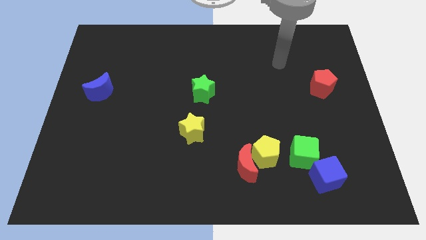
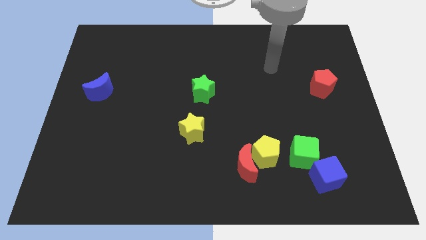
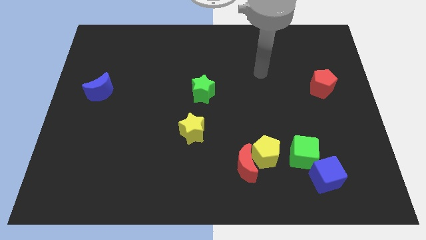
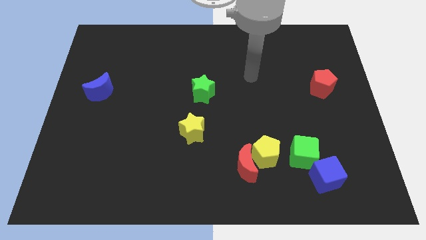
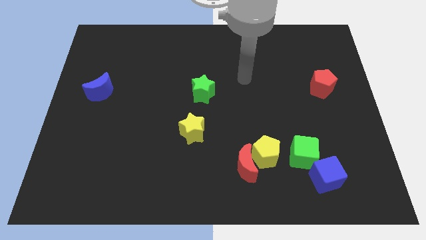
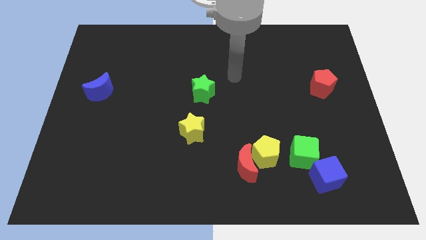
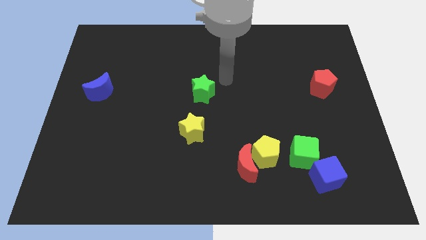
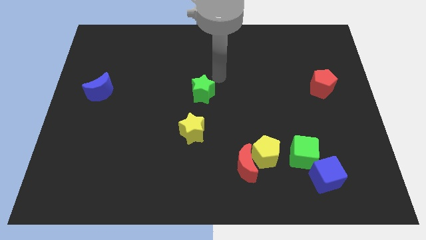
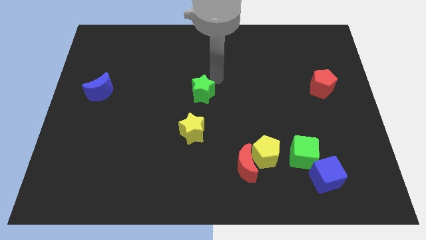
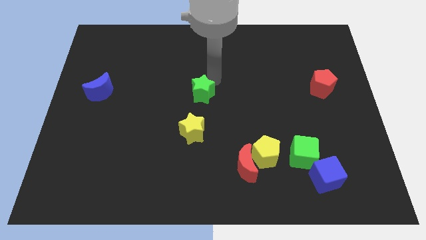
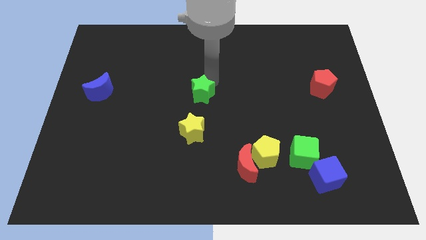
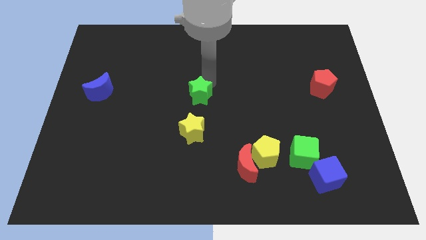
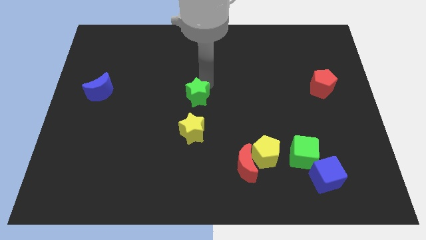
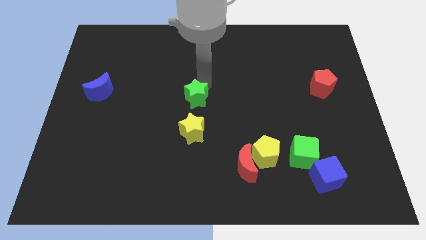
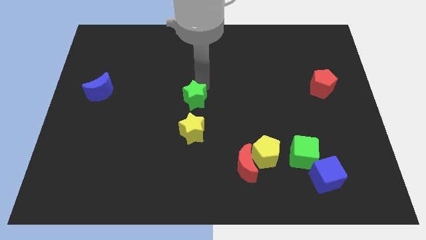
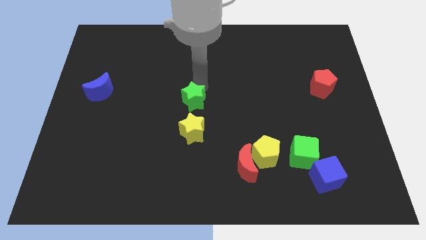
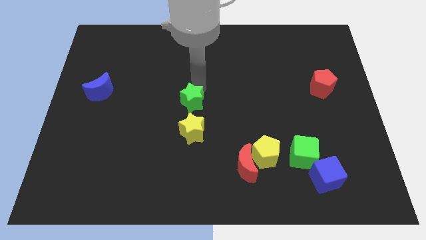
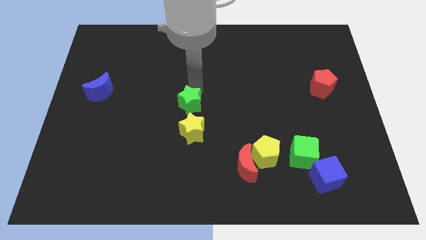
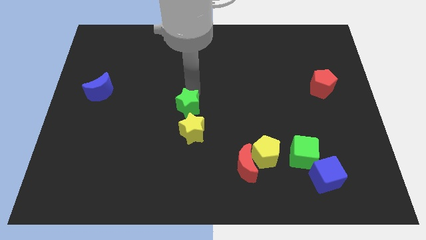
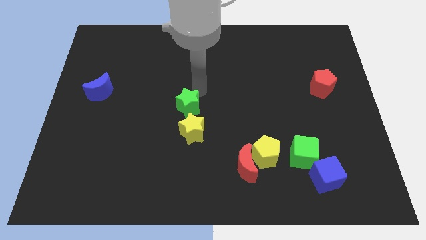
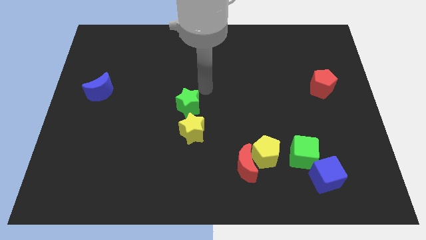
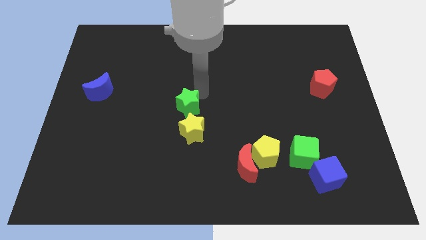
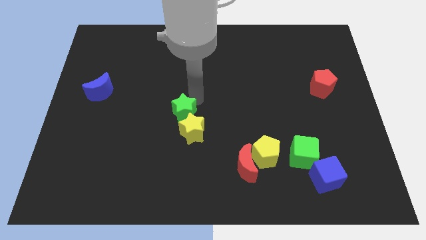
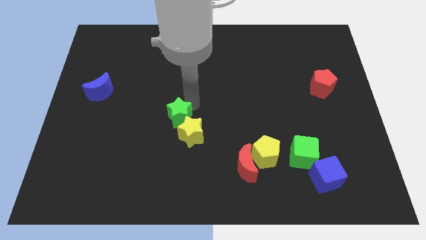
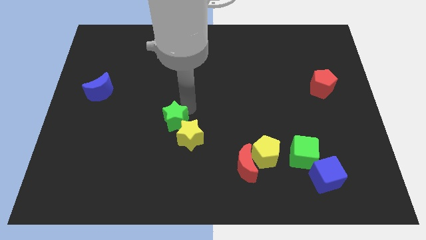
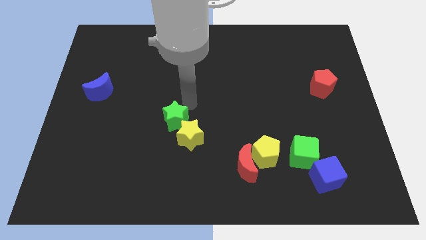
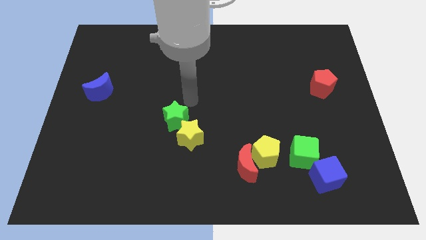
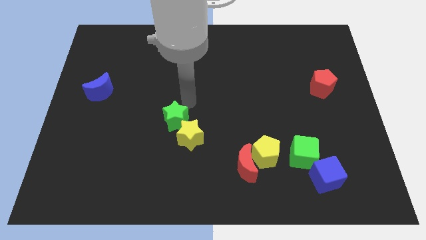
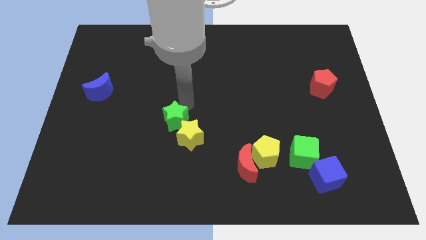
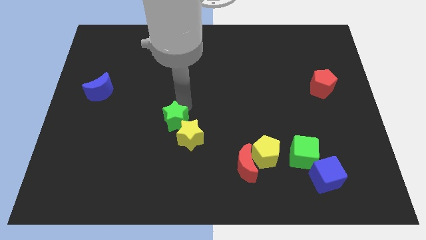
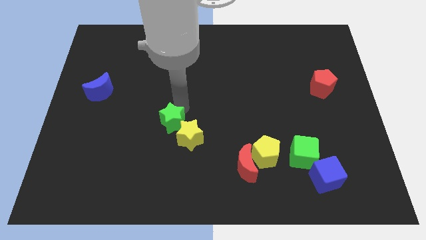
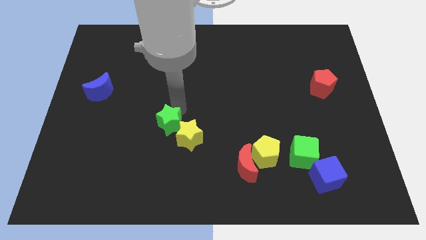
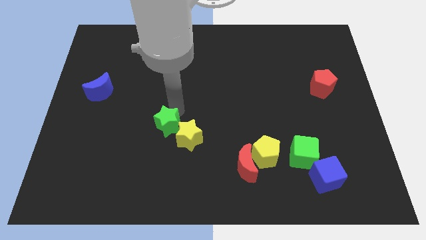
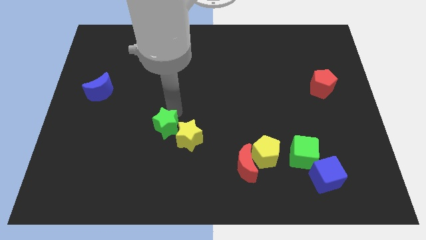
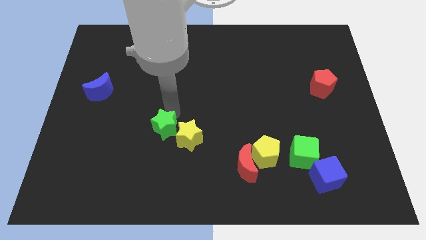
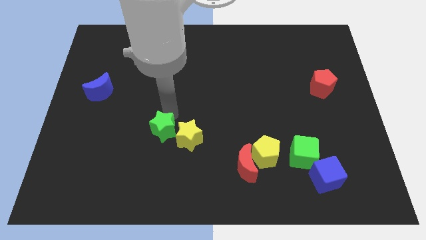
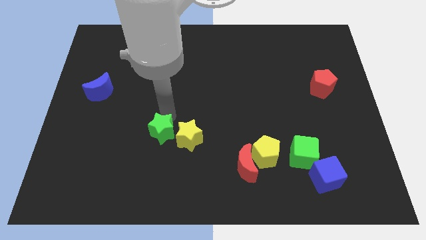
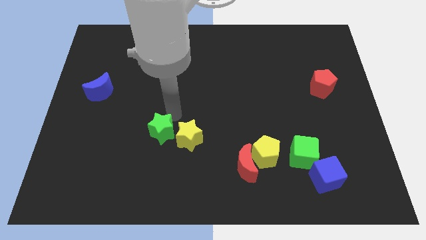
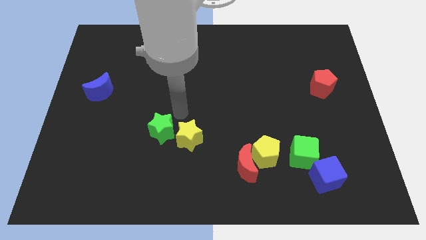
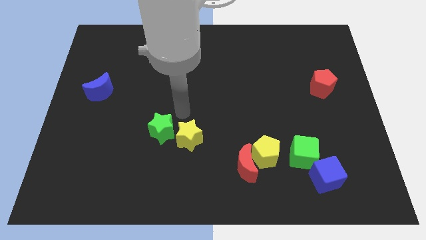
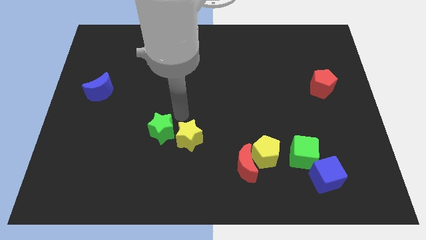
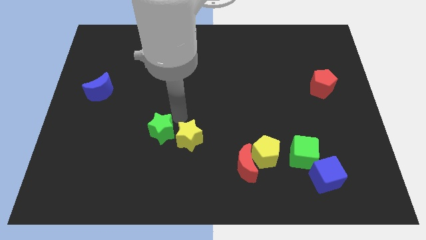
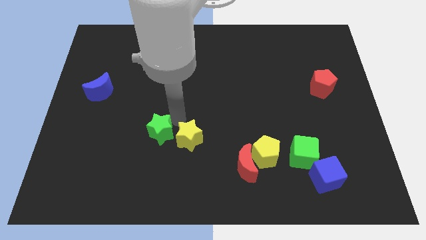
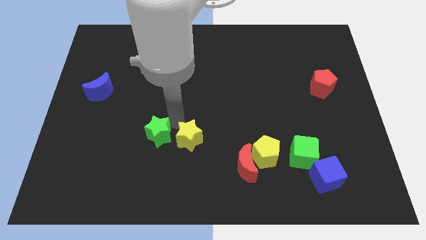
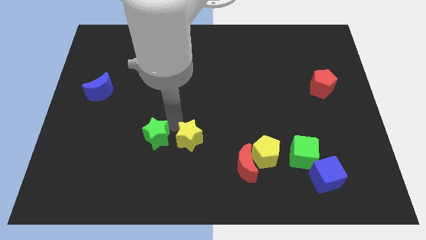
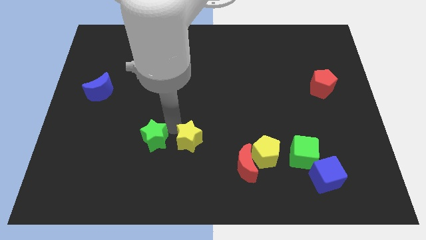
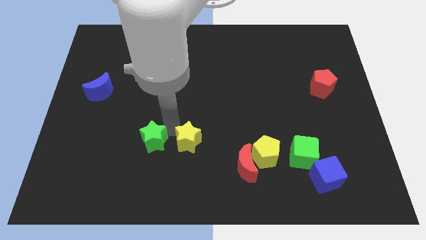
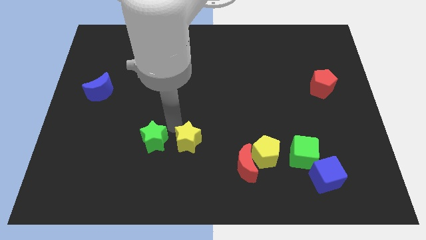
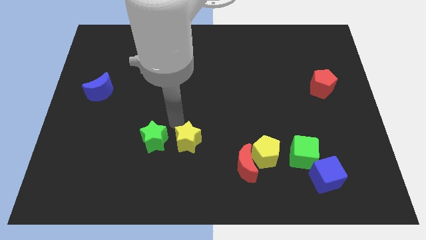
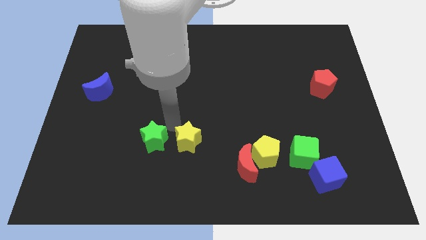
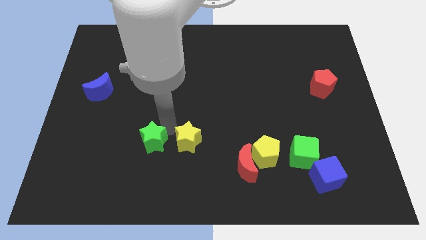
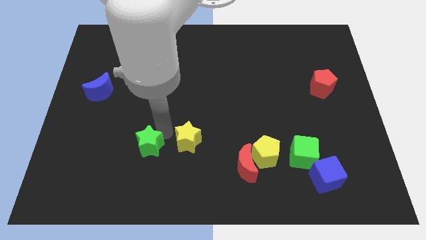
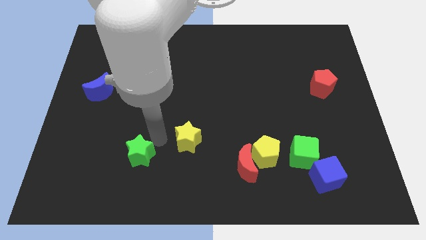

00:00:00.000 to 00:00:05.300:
slide the green star downwards and left diagonally

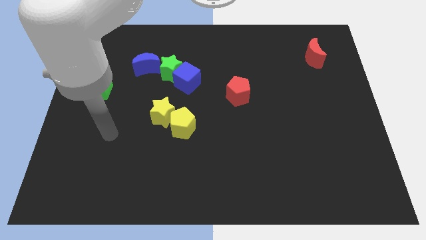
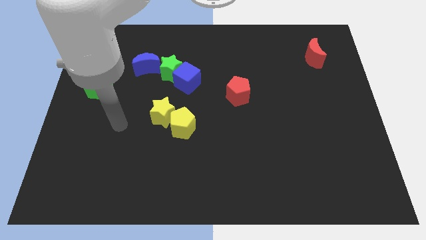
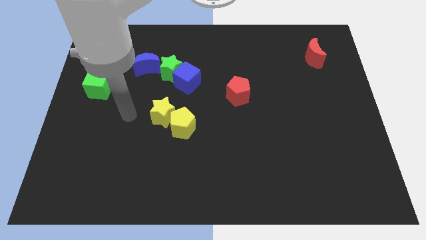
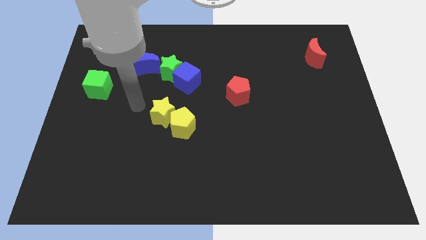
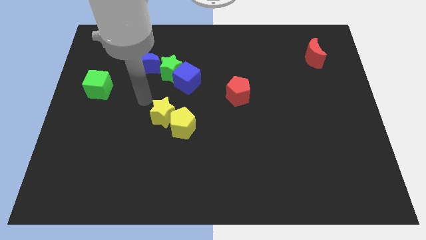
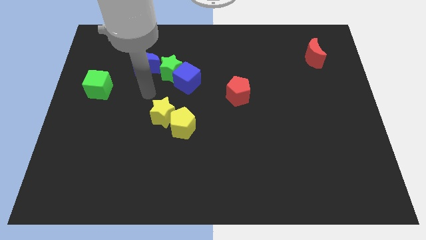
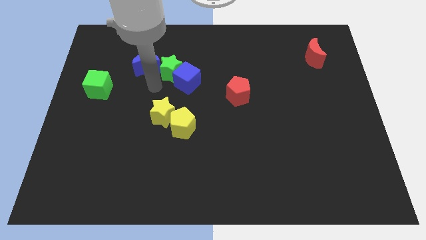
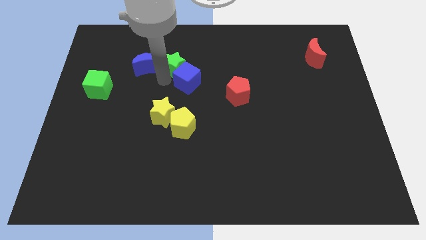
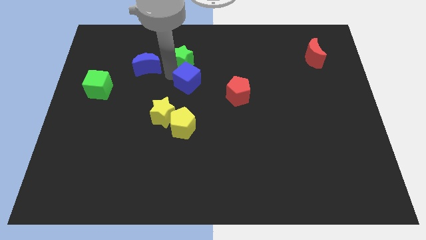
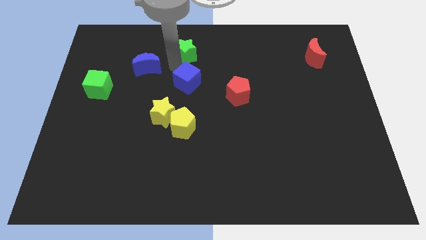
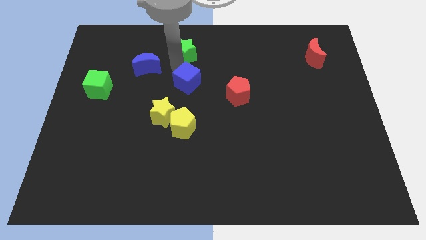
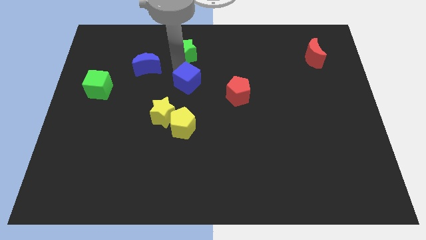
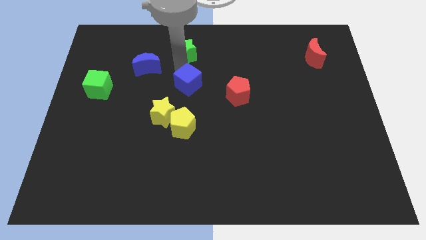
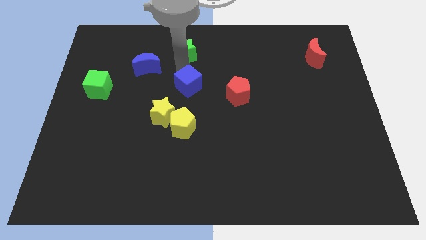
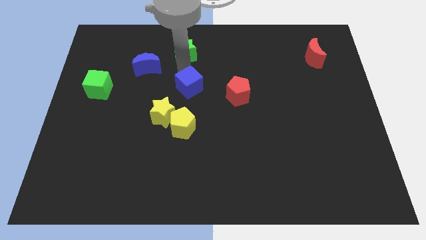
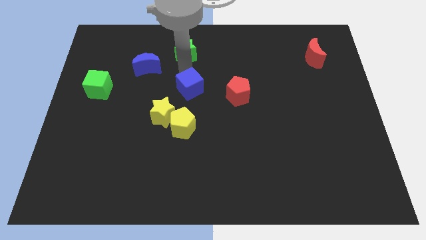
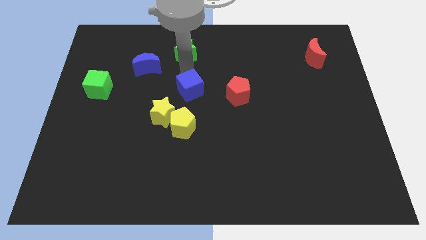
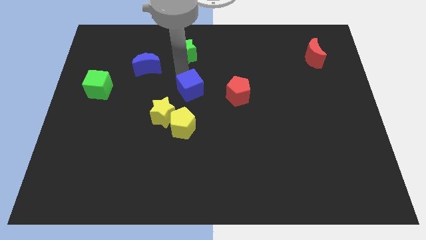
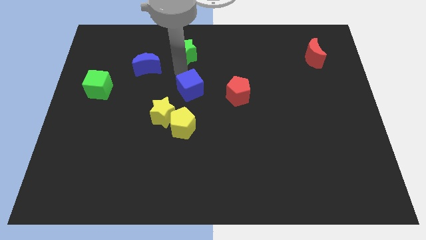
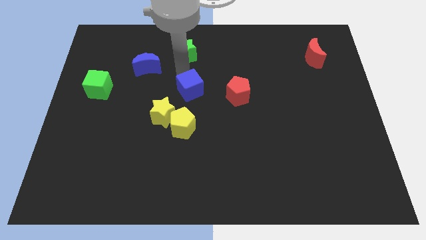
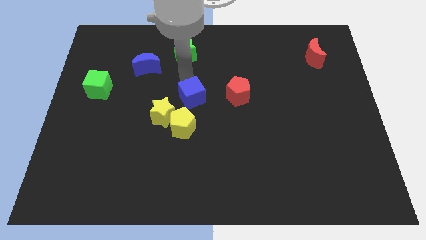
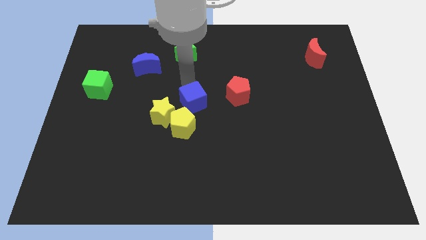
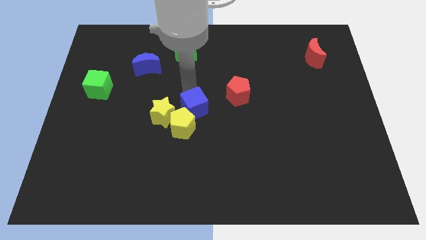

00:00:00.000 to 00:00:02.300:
slightly push the blue cube downwards

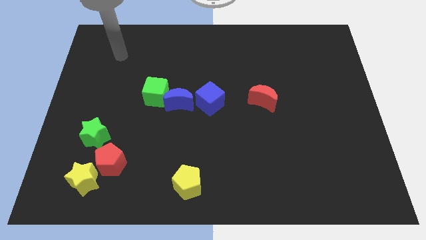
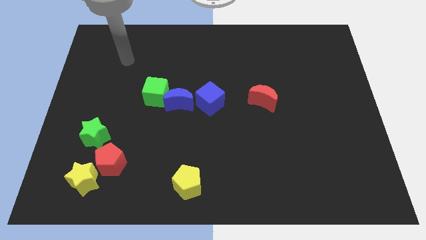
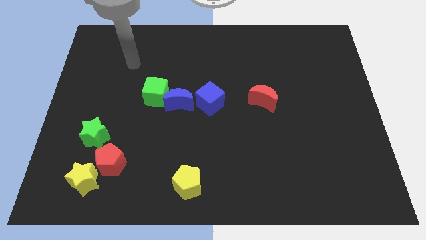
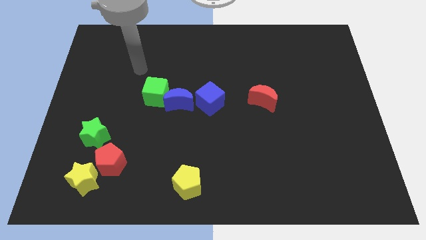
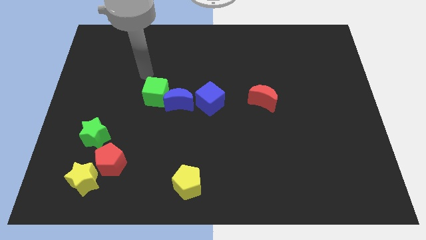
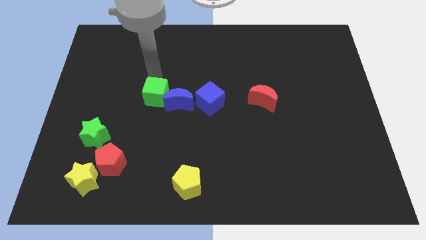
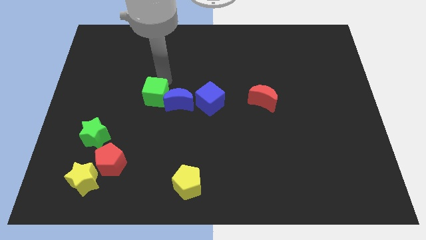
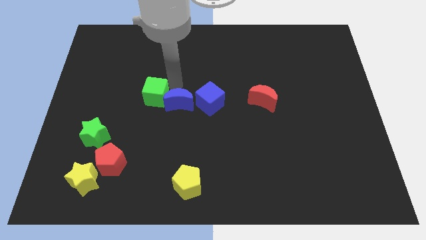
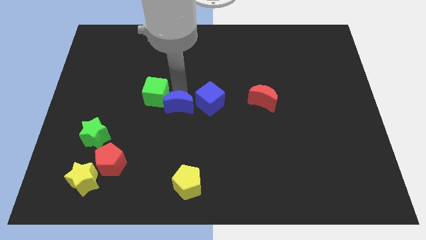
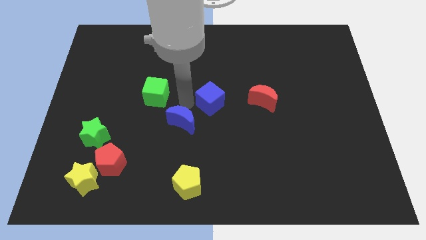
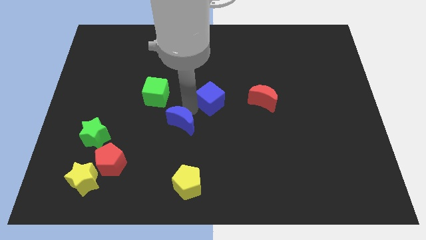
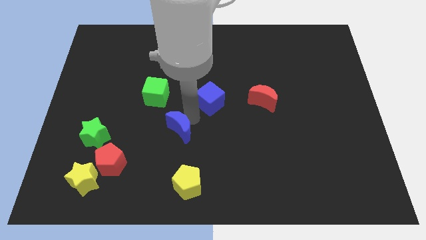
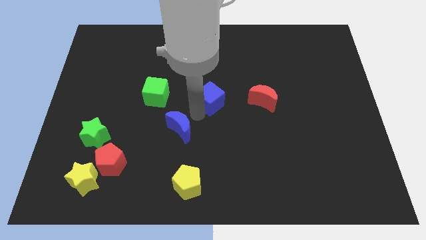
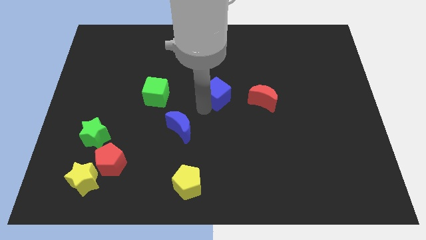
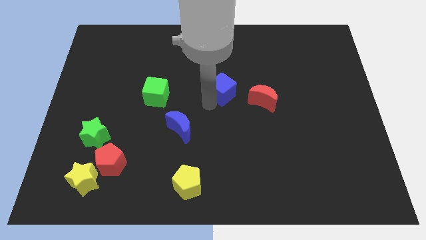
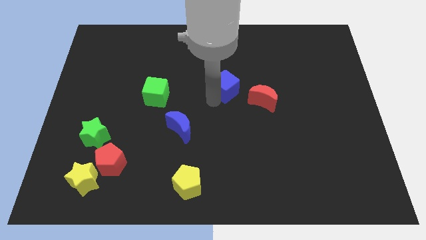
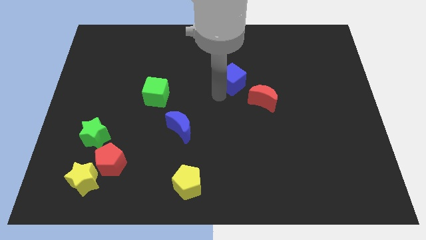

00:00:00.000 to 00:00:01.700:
slide the blue cube slightly up and right
